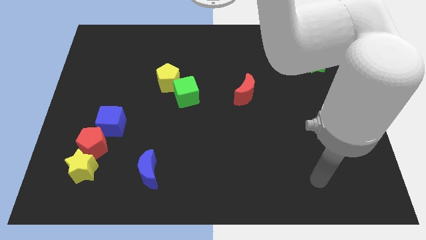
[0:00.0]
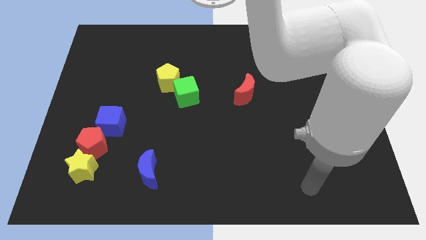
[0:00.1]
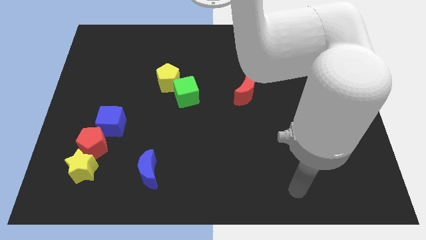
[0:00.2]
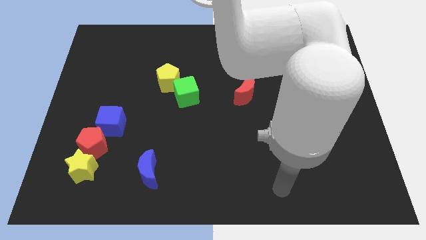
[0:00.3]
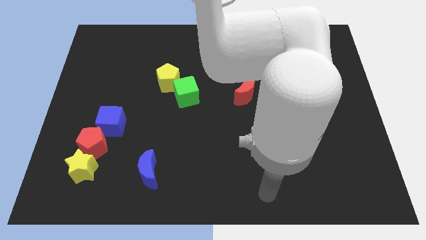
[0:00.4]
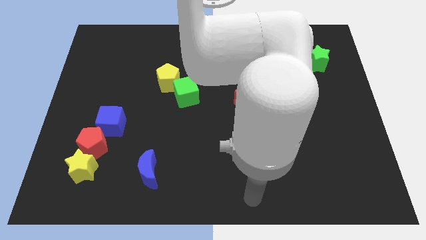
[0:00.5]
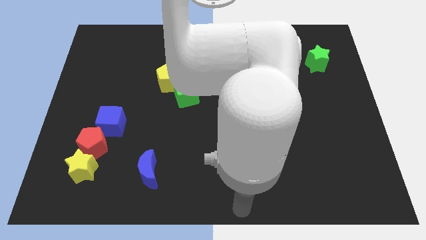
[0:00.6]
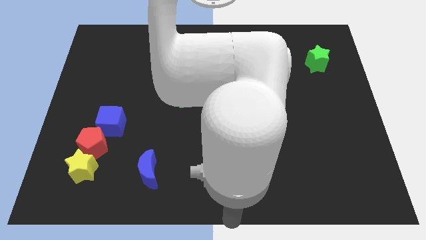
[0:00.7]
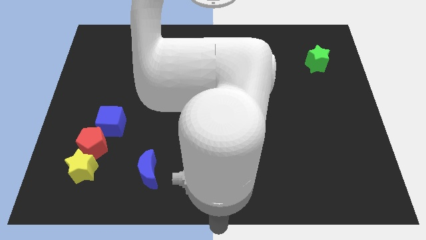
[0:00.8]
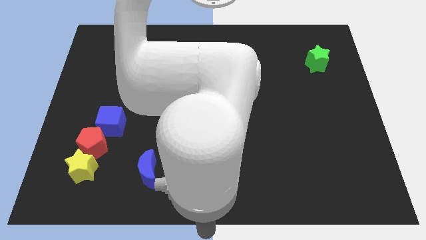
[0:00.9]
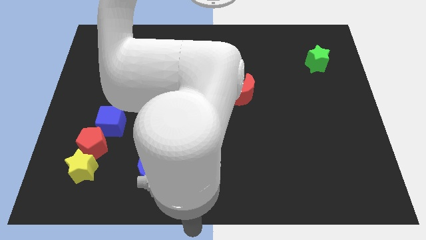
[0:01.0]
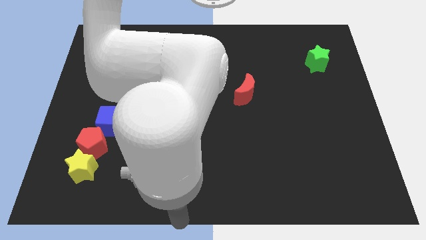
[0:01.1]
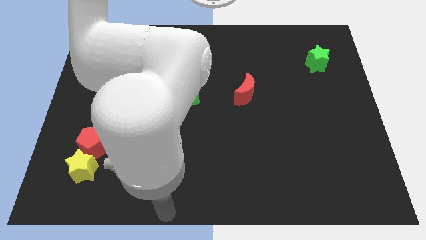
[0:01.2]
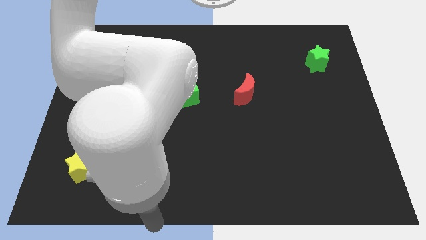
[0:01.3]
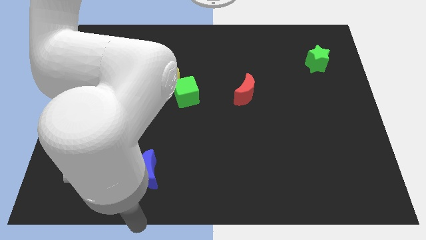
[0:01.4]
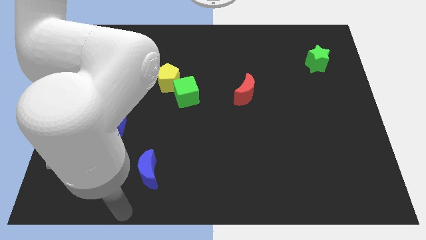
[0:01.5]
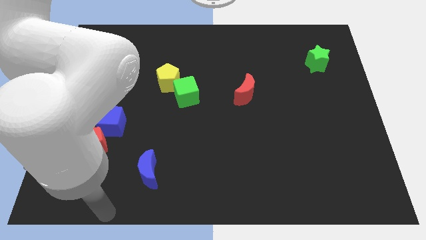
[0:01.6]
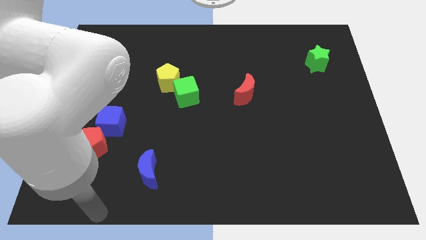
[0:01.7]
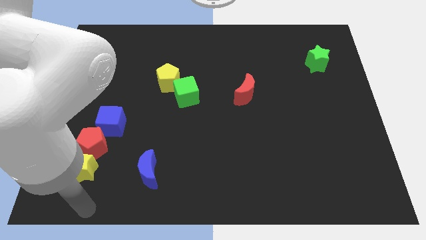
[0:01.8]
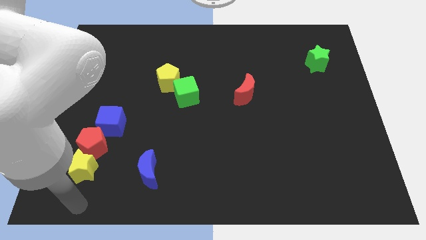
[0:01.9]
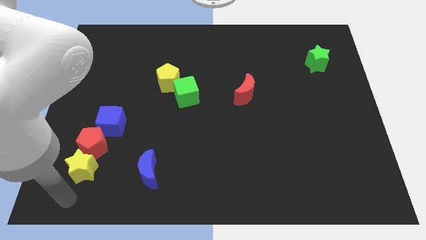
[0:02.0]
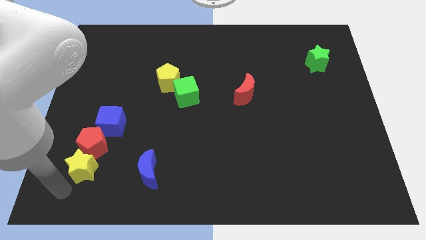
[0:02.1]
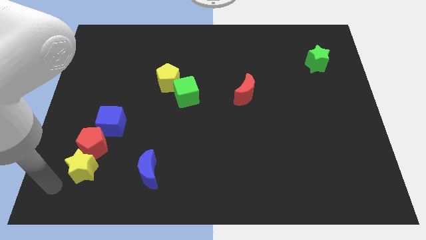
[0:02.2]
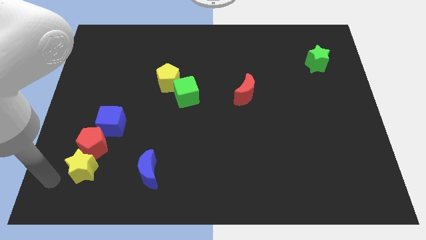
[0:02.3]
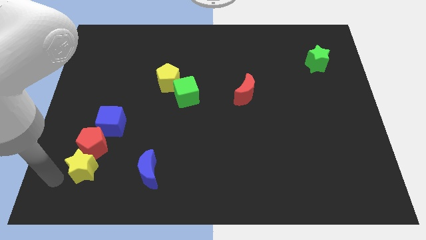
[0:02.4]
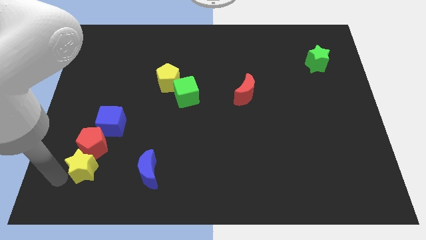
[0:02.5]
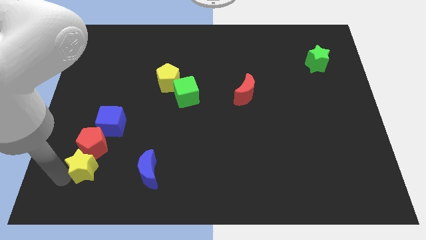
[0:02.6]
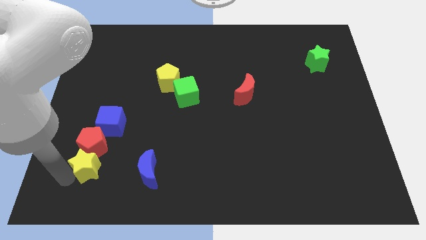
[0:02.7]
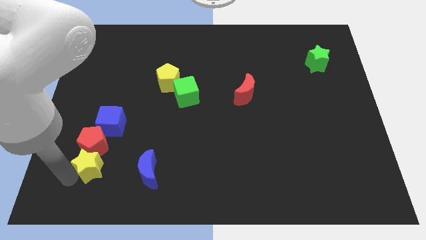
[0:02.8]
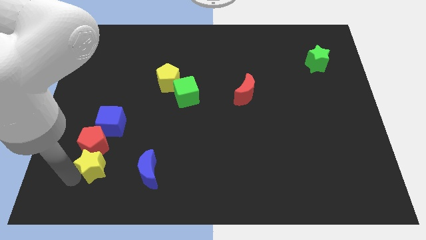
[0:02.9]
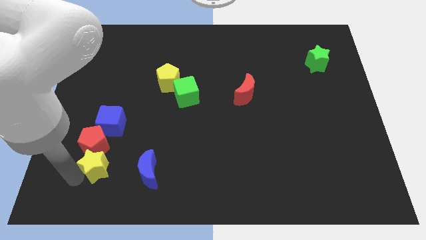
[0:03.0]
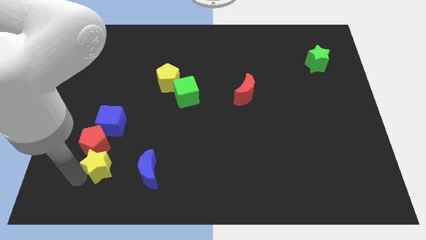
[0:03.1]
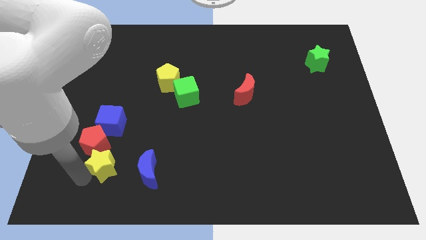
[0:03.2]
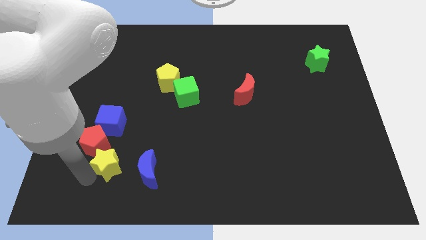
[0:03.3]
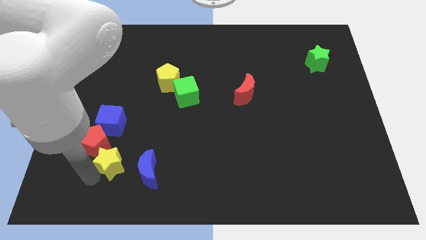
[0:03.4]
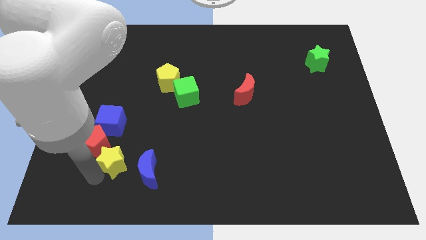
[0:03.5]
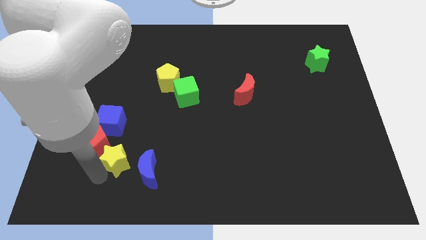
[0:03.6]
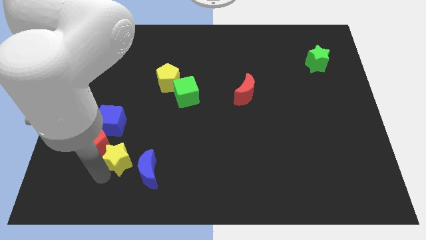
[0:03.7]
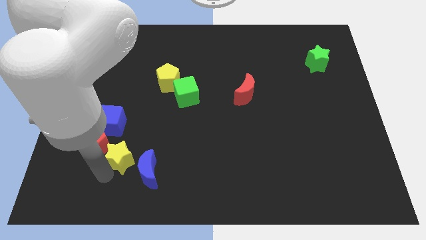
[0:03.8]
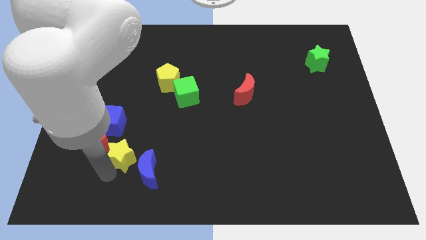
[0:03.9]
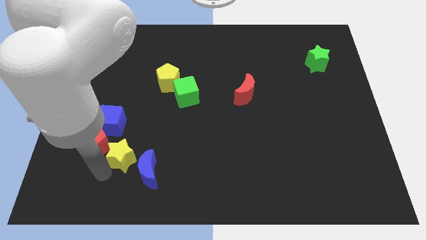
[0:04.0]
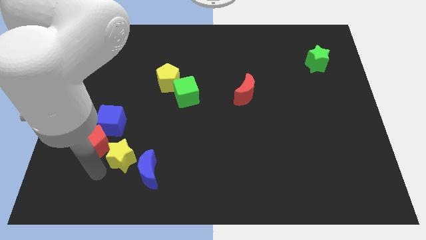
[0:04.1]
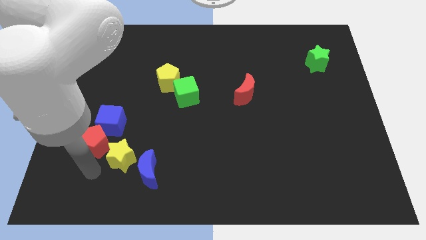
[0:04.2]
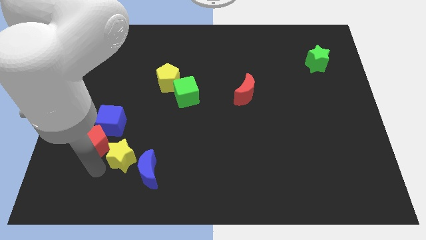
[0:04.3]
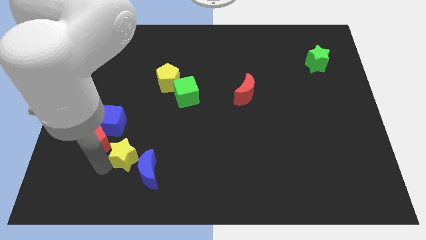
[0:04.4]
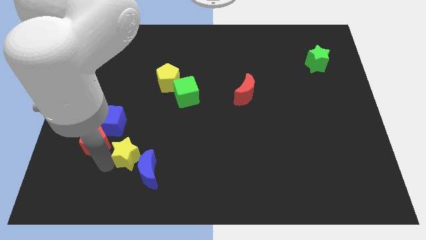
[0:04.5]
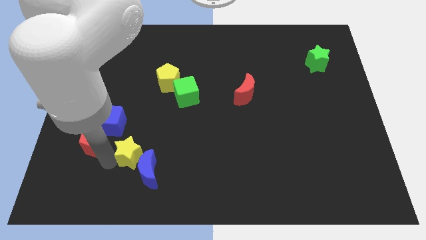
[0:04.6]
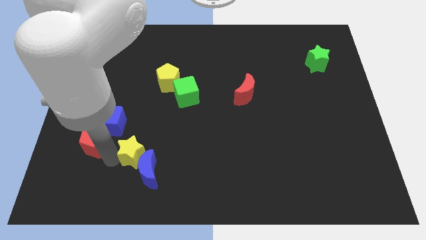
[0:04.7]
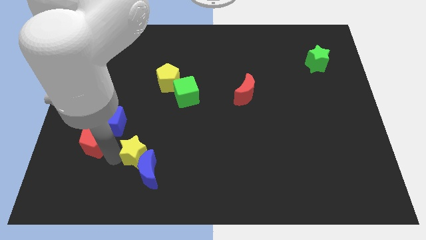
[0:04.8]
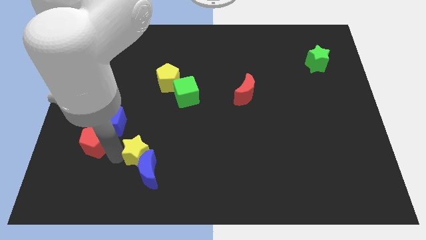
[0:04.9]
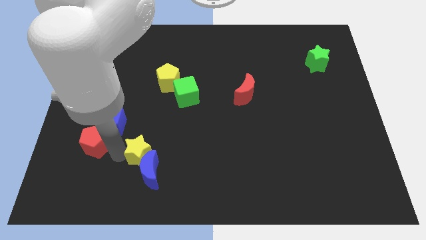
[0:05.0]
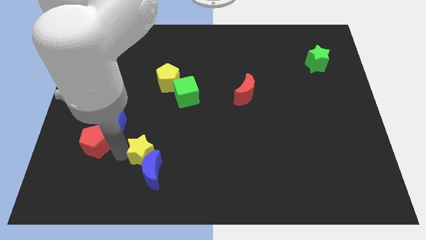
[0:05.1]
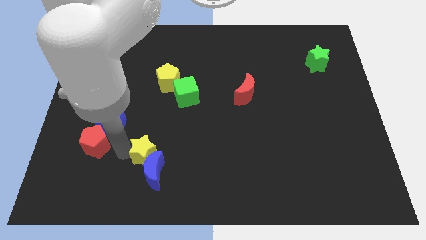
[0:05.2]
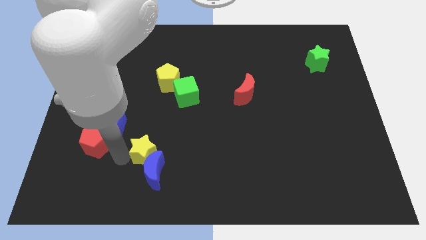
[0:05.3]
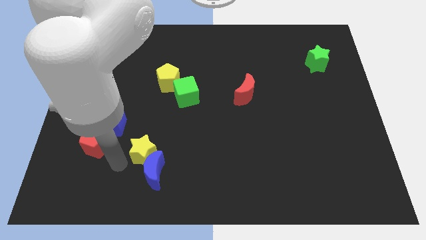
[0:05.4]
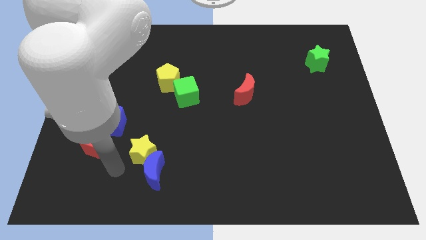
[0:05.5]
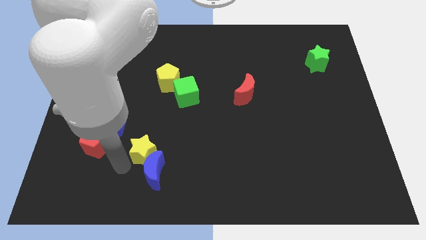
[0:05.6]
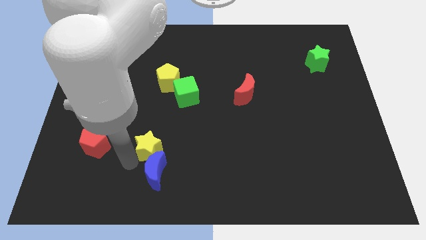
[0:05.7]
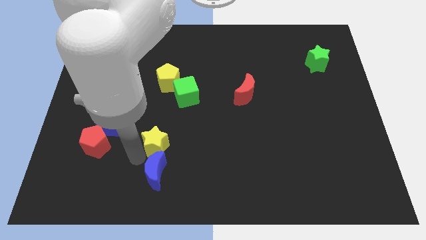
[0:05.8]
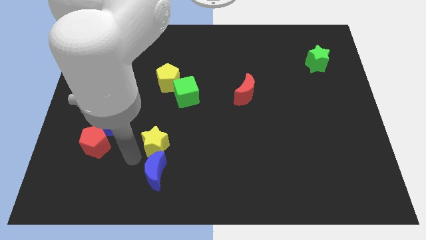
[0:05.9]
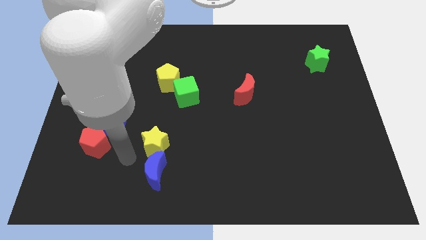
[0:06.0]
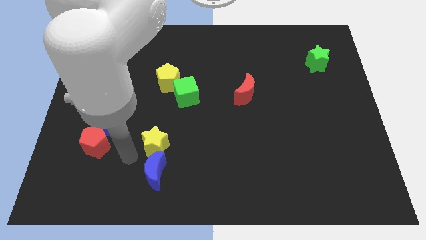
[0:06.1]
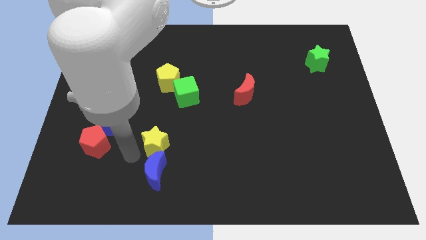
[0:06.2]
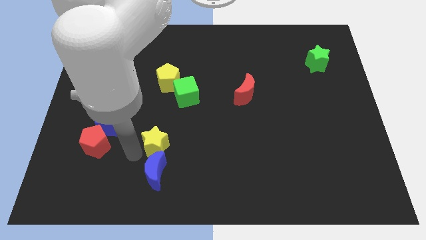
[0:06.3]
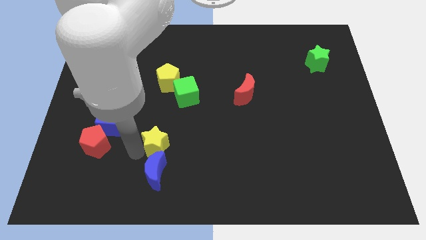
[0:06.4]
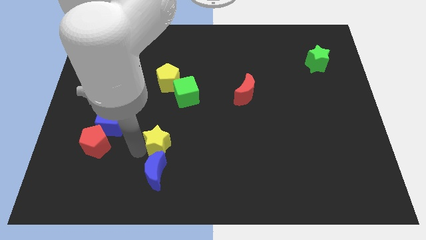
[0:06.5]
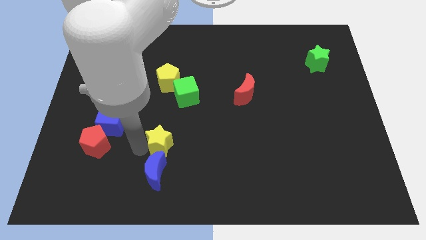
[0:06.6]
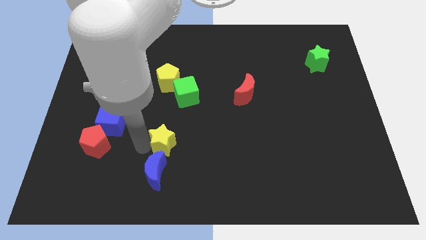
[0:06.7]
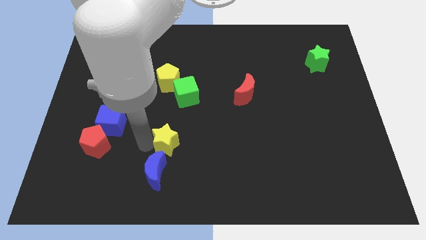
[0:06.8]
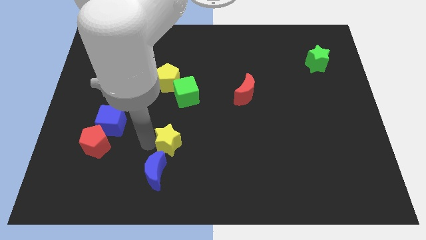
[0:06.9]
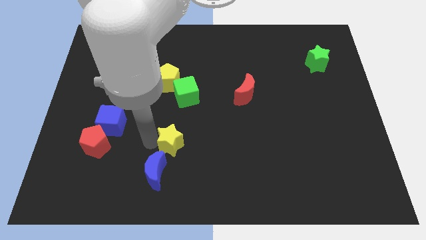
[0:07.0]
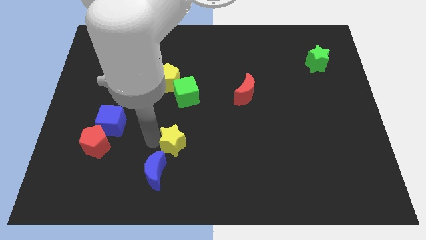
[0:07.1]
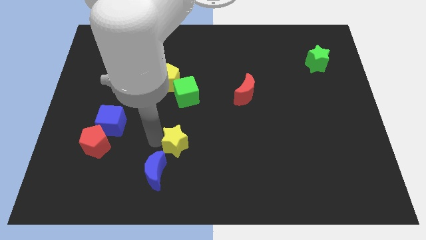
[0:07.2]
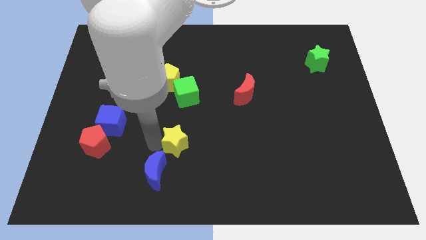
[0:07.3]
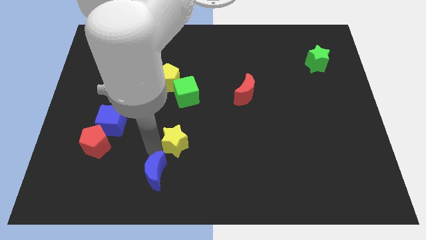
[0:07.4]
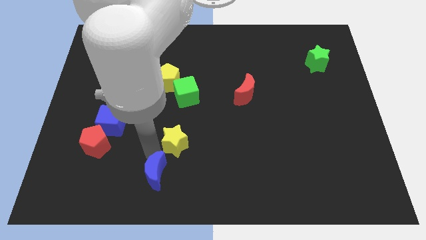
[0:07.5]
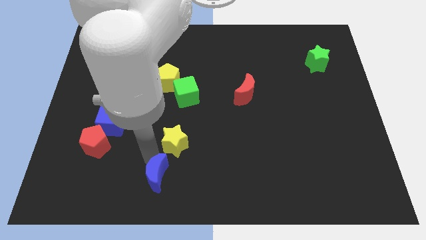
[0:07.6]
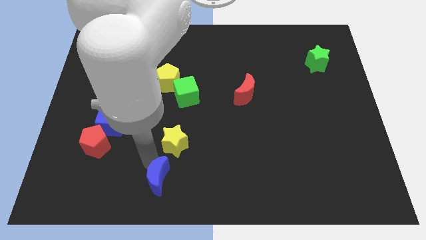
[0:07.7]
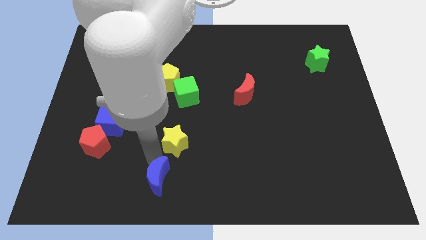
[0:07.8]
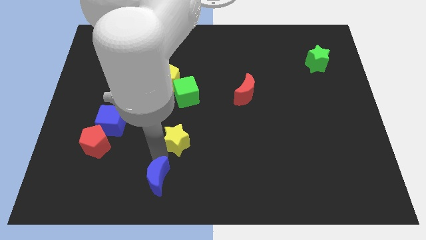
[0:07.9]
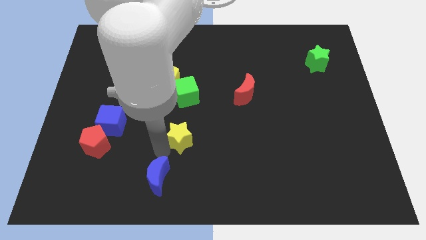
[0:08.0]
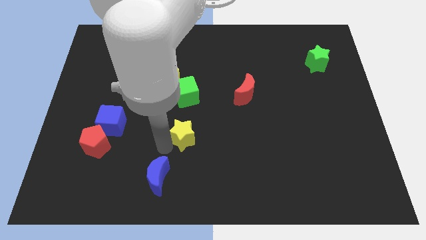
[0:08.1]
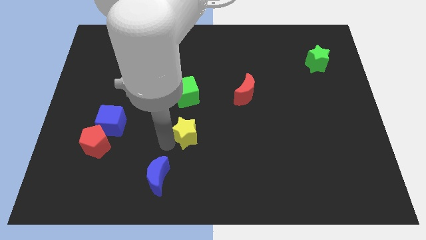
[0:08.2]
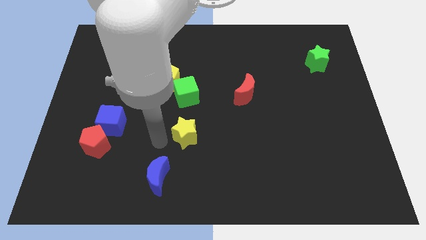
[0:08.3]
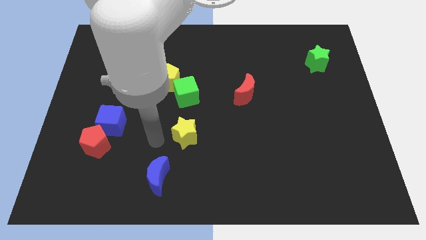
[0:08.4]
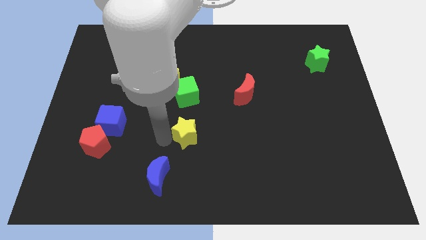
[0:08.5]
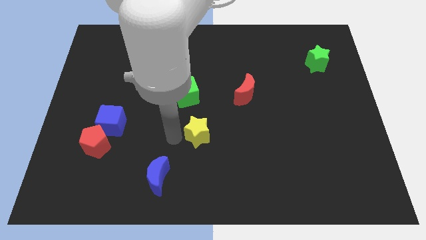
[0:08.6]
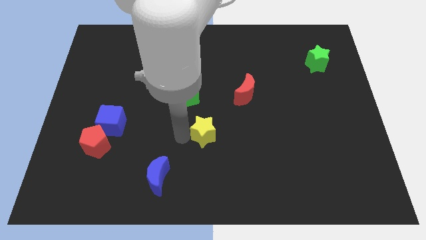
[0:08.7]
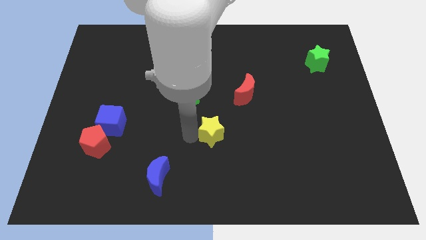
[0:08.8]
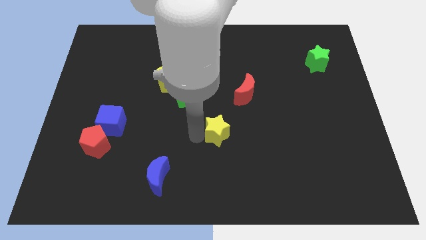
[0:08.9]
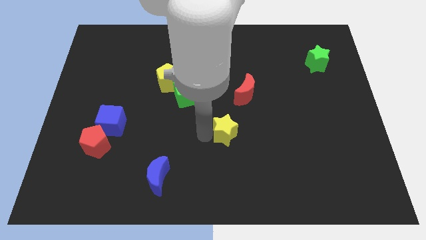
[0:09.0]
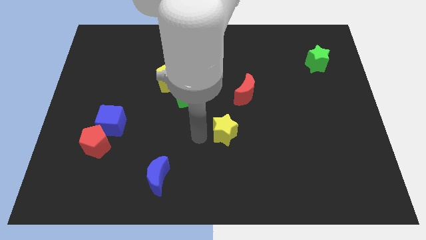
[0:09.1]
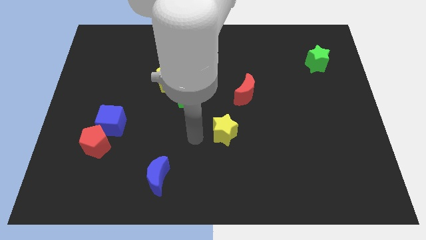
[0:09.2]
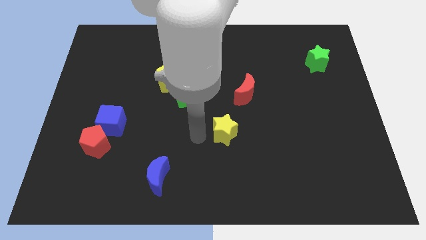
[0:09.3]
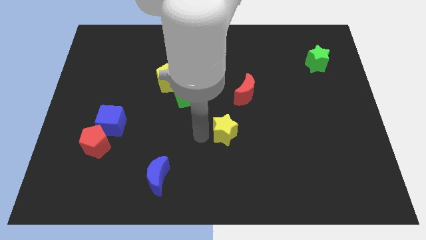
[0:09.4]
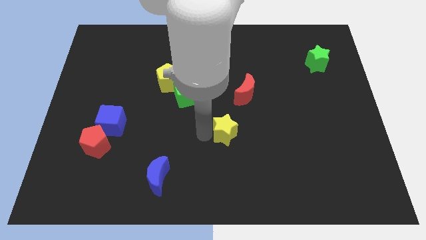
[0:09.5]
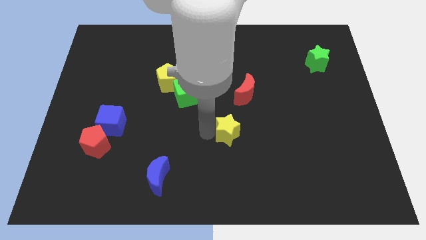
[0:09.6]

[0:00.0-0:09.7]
push the yellow star below the red moon
